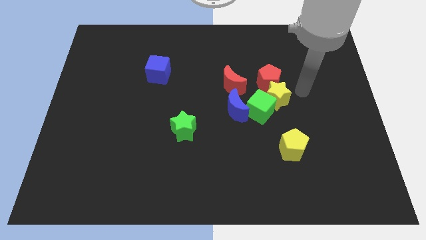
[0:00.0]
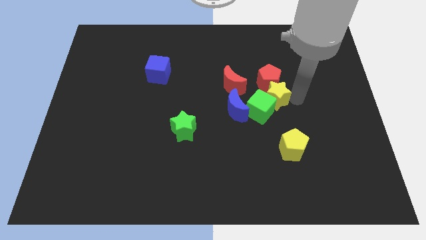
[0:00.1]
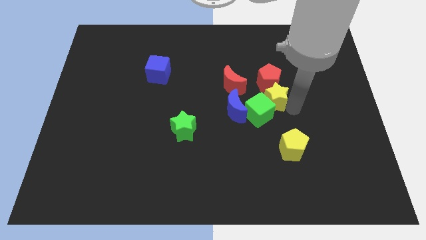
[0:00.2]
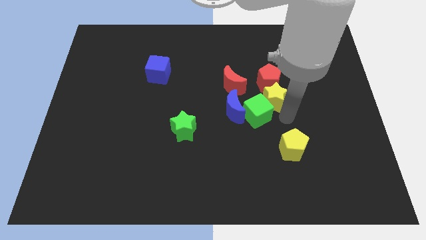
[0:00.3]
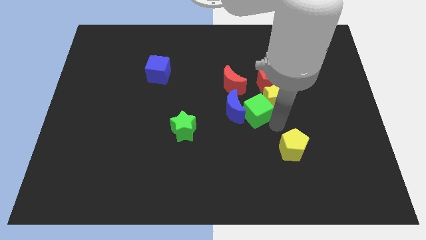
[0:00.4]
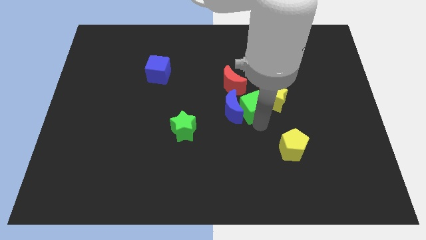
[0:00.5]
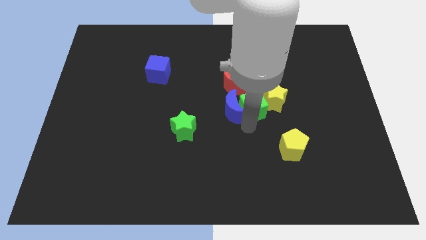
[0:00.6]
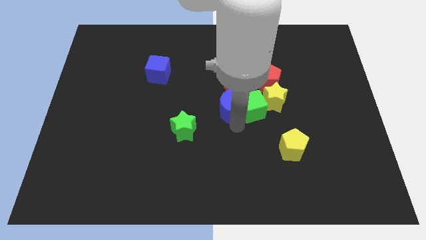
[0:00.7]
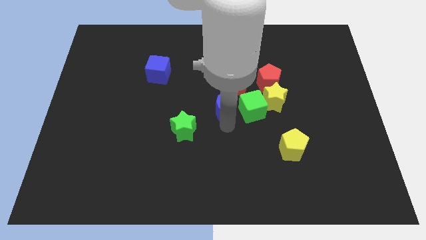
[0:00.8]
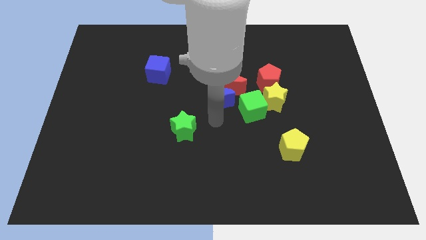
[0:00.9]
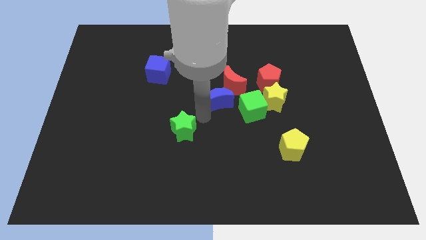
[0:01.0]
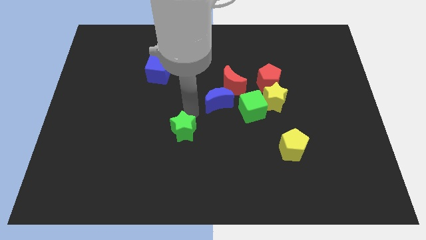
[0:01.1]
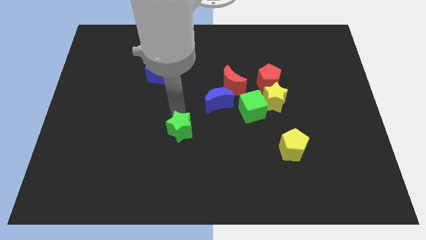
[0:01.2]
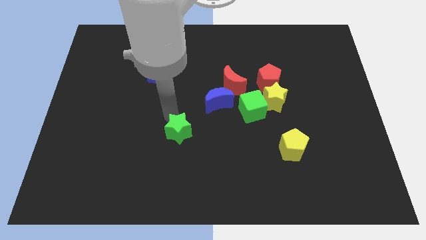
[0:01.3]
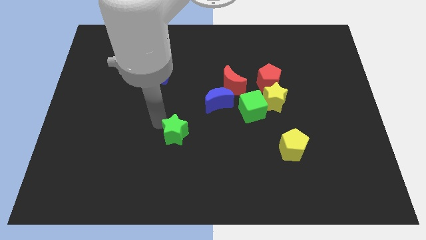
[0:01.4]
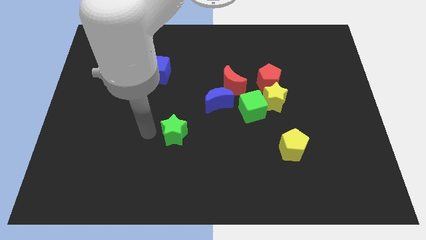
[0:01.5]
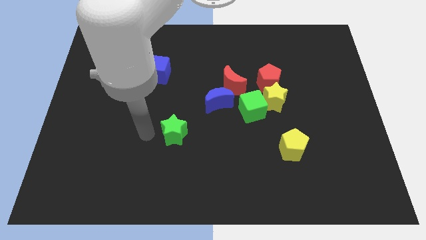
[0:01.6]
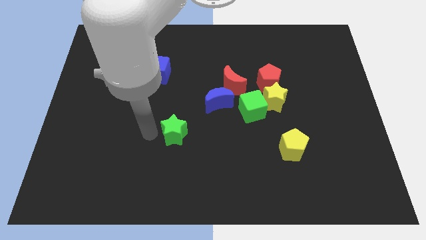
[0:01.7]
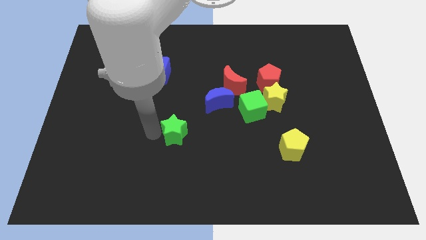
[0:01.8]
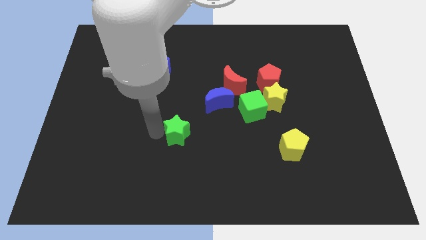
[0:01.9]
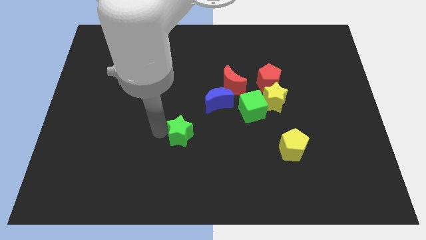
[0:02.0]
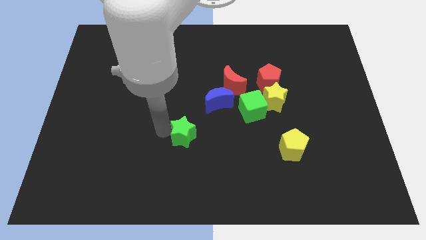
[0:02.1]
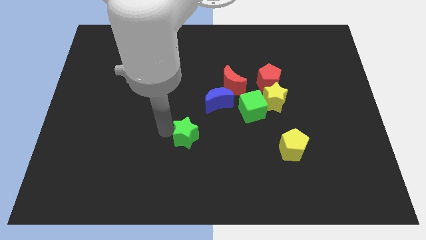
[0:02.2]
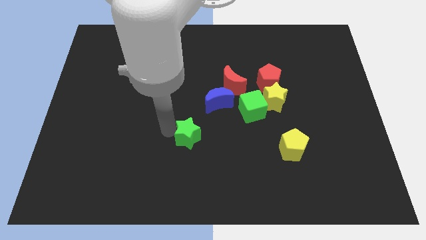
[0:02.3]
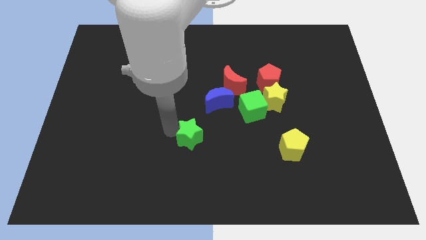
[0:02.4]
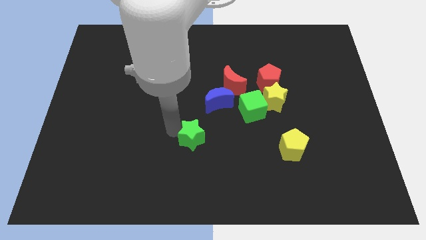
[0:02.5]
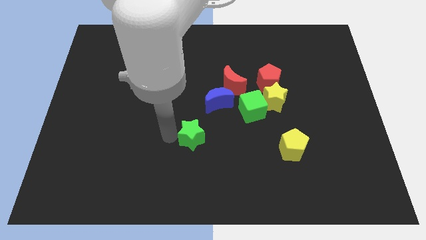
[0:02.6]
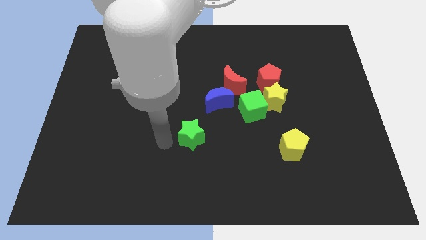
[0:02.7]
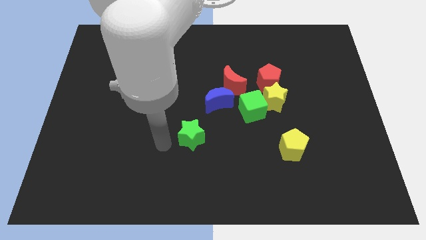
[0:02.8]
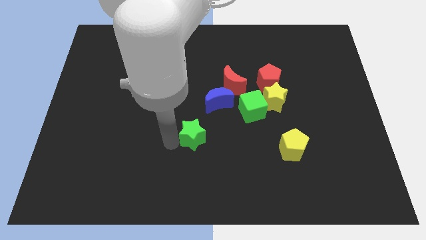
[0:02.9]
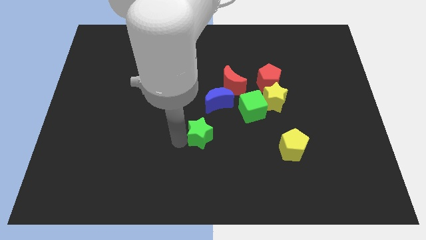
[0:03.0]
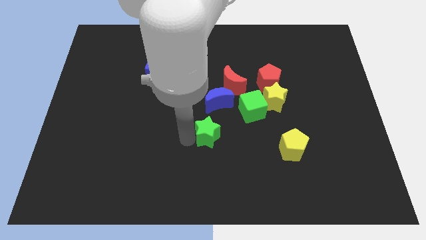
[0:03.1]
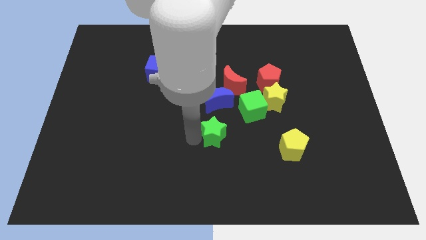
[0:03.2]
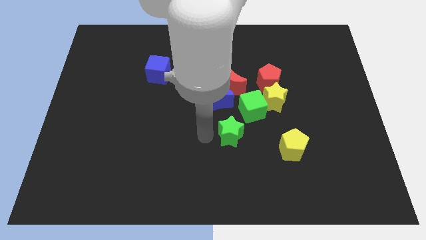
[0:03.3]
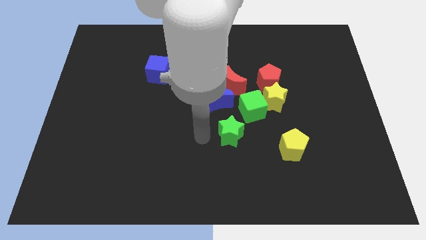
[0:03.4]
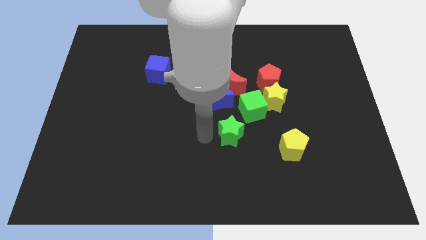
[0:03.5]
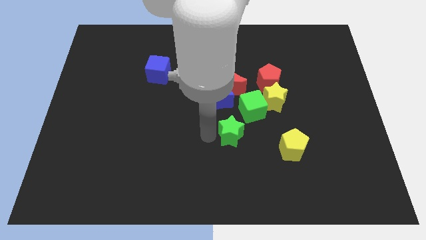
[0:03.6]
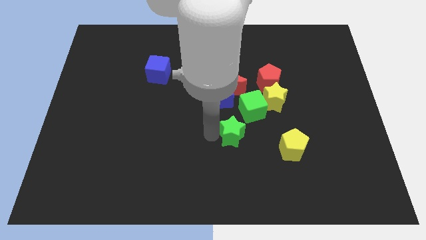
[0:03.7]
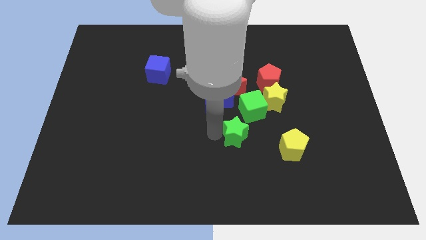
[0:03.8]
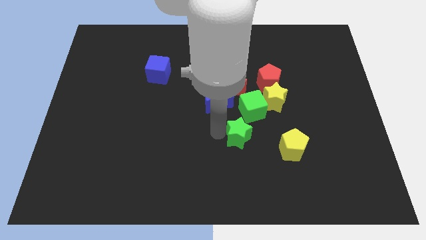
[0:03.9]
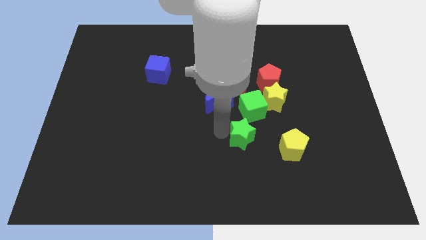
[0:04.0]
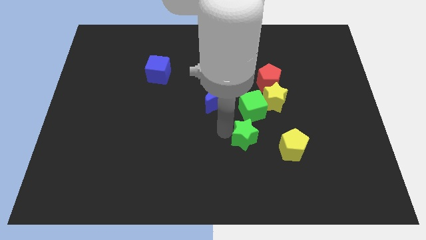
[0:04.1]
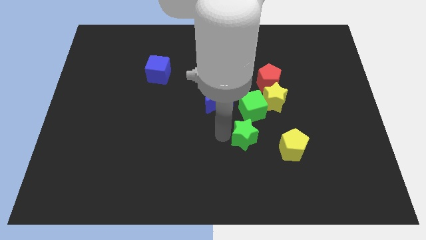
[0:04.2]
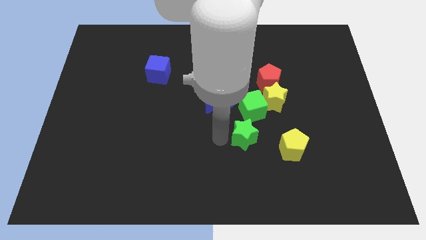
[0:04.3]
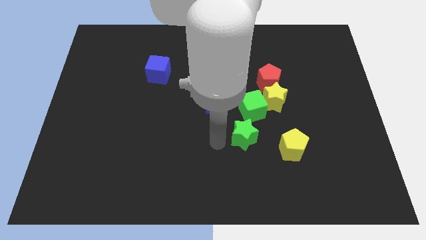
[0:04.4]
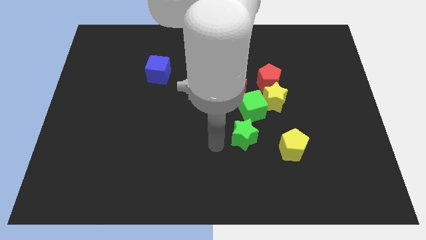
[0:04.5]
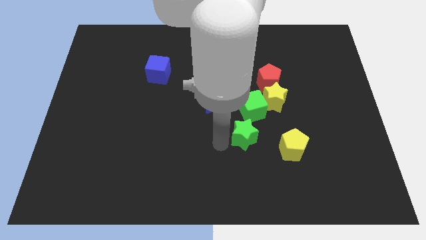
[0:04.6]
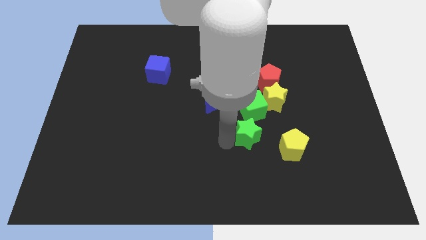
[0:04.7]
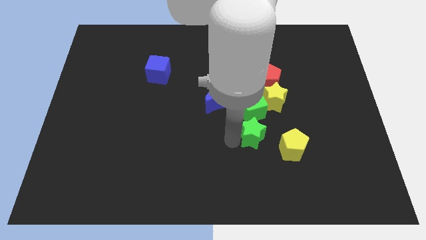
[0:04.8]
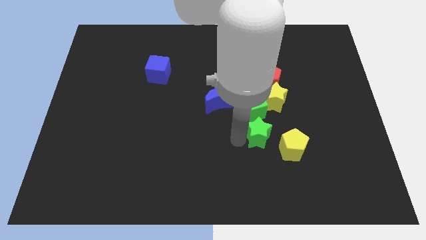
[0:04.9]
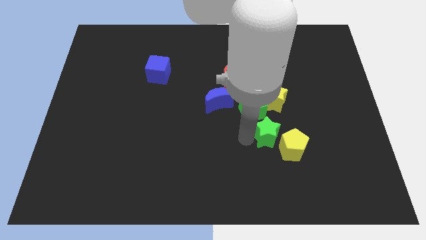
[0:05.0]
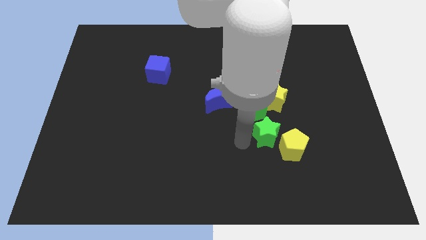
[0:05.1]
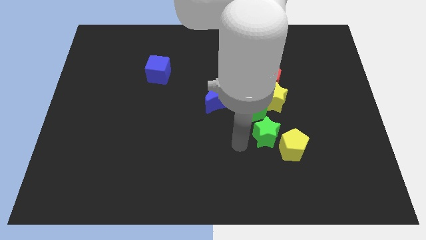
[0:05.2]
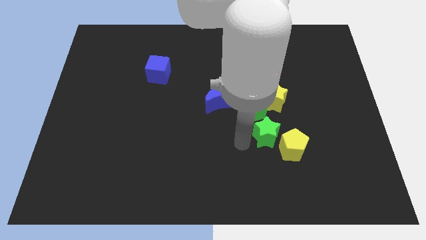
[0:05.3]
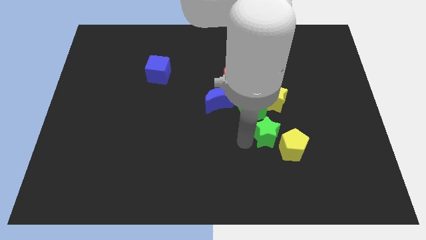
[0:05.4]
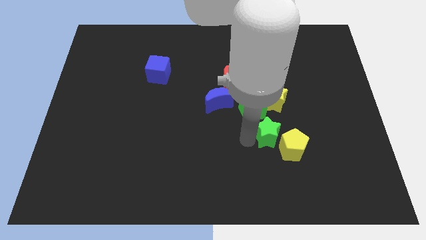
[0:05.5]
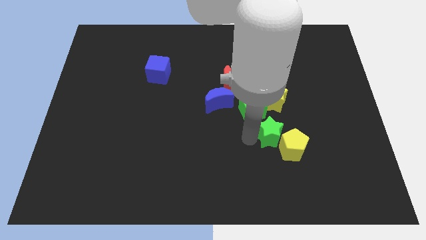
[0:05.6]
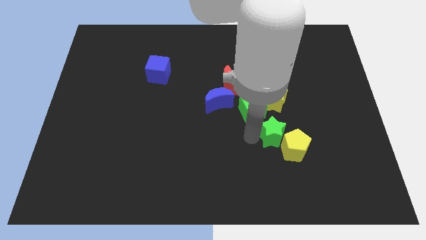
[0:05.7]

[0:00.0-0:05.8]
move the green star to the right

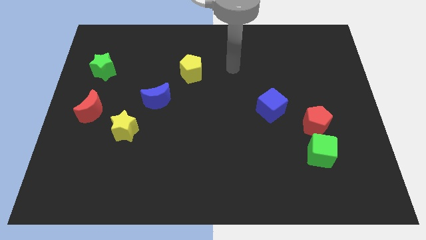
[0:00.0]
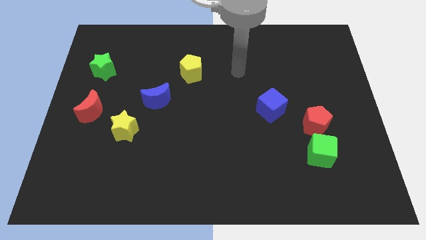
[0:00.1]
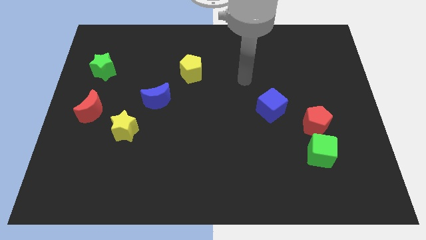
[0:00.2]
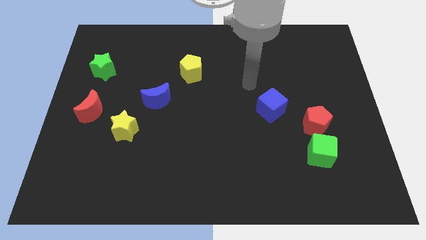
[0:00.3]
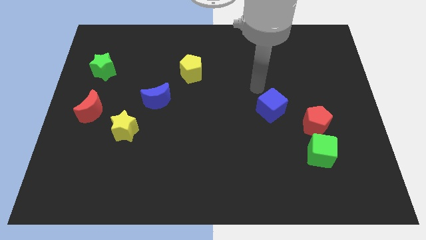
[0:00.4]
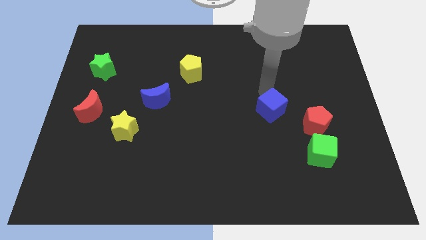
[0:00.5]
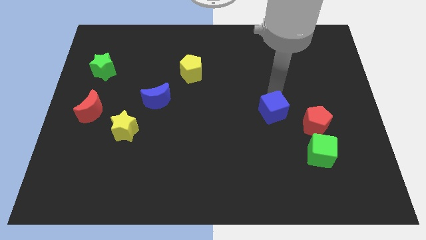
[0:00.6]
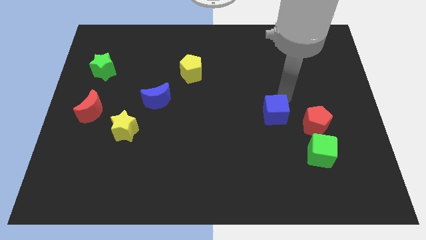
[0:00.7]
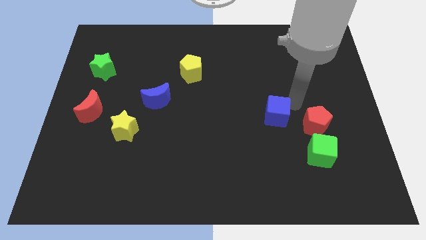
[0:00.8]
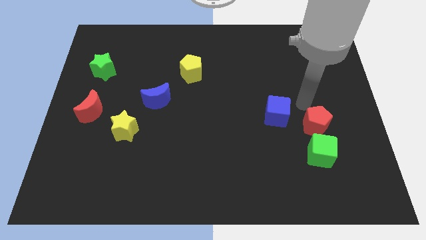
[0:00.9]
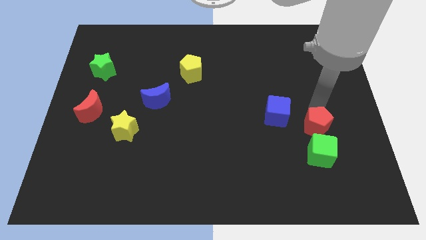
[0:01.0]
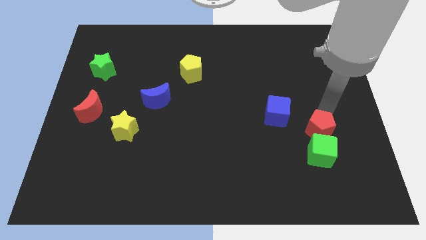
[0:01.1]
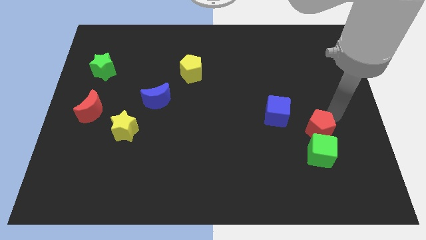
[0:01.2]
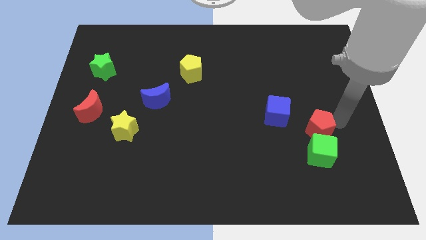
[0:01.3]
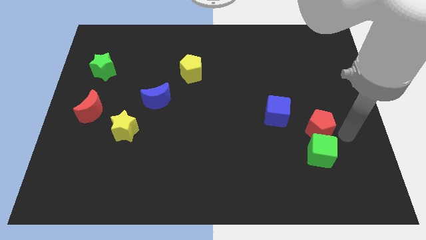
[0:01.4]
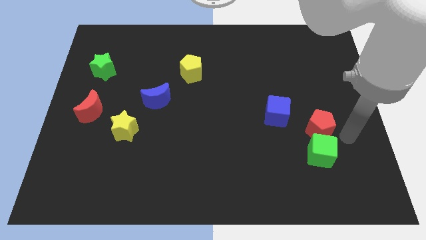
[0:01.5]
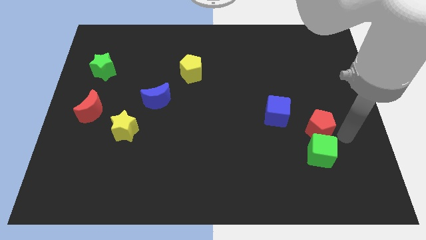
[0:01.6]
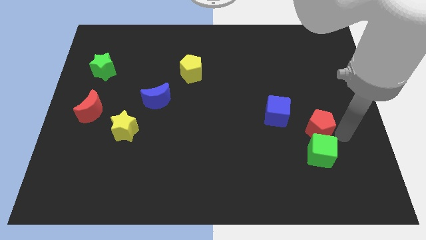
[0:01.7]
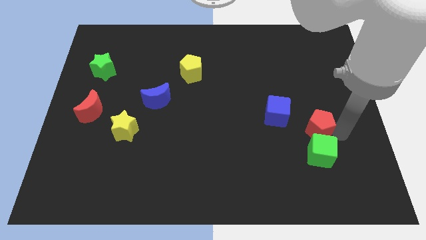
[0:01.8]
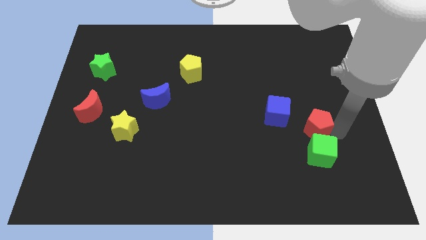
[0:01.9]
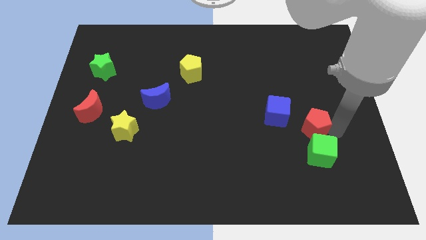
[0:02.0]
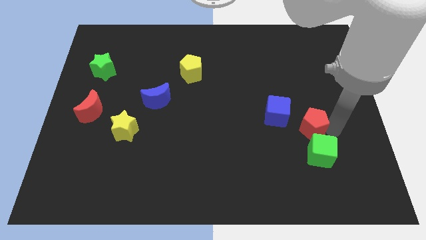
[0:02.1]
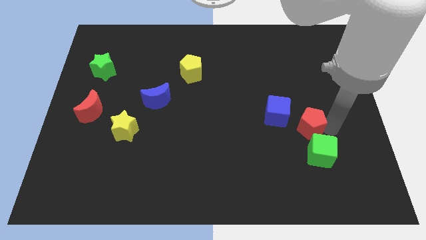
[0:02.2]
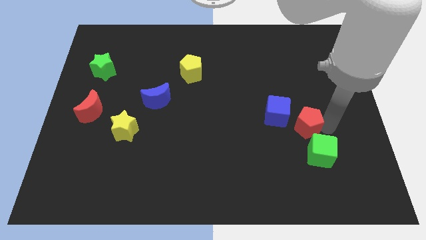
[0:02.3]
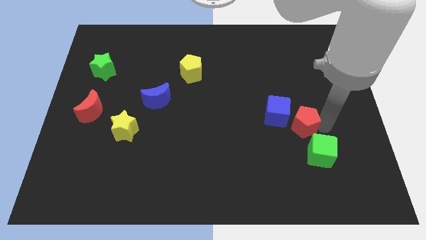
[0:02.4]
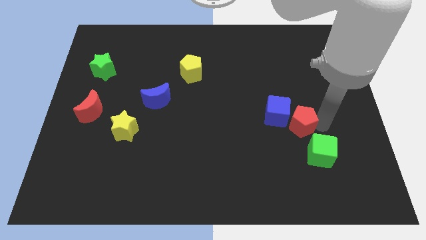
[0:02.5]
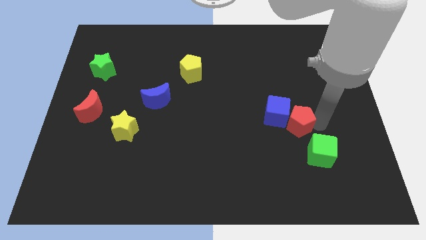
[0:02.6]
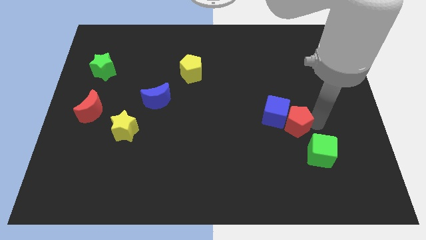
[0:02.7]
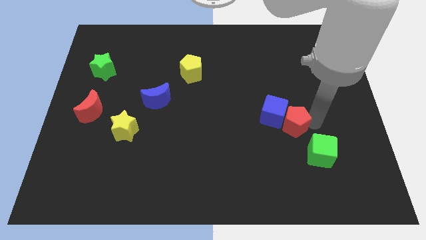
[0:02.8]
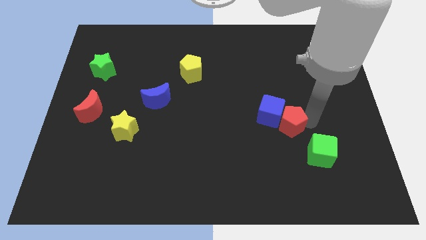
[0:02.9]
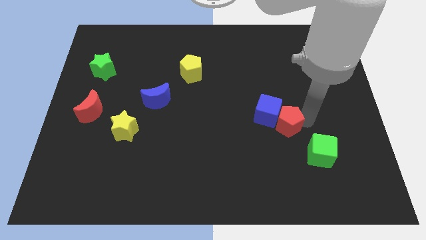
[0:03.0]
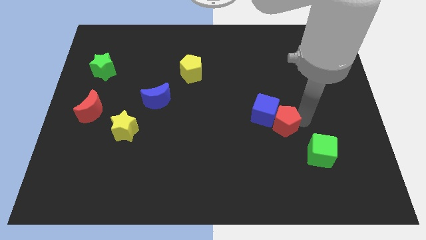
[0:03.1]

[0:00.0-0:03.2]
slightly slide the red pentagon left
